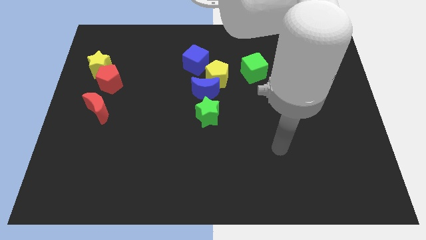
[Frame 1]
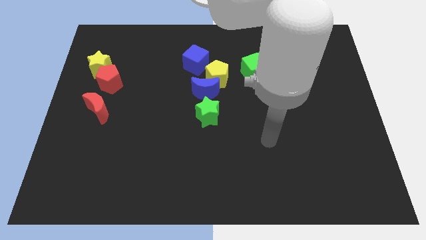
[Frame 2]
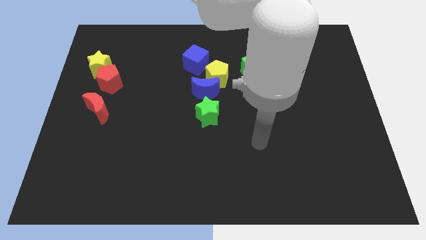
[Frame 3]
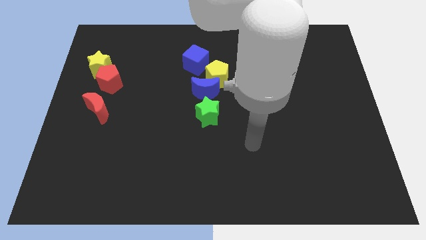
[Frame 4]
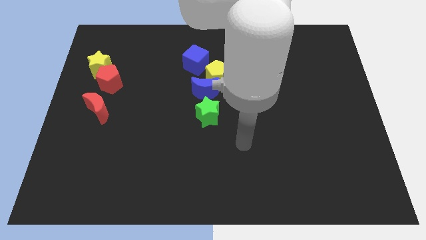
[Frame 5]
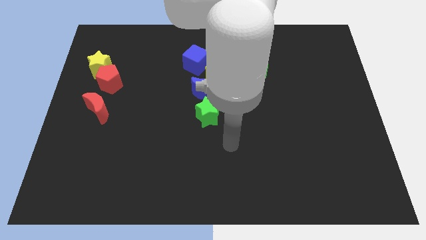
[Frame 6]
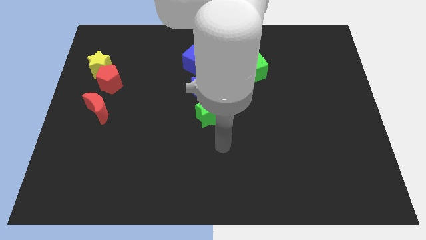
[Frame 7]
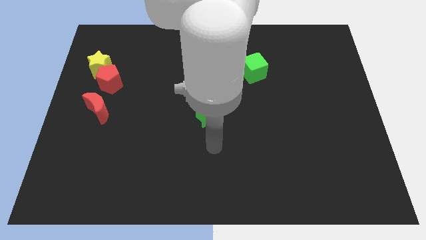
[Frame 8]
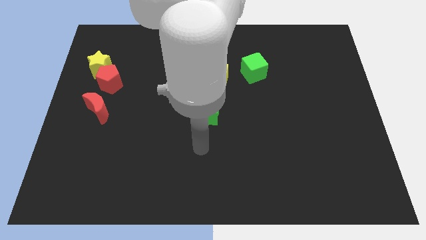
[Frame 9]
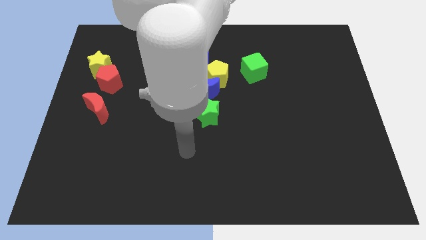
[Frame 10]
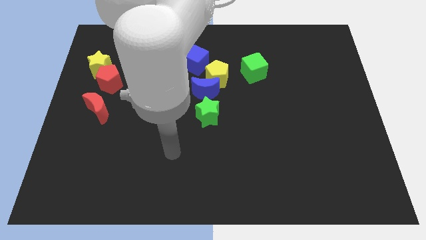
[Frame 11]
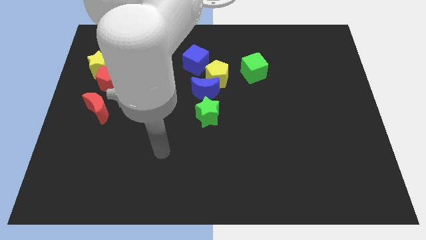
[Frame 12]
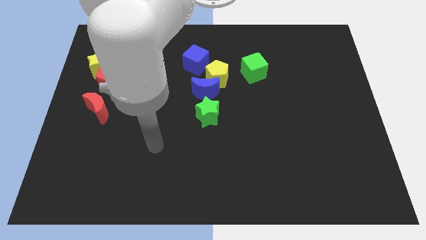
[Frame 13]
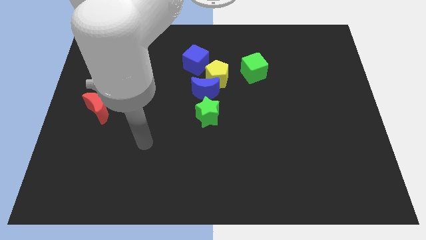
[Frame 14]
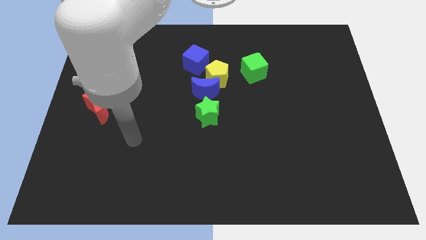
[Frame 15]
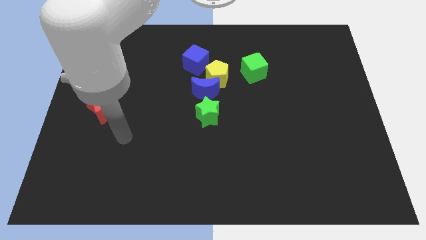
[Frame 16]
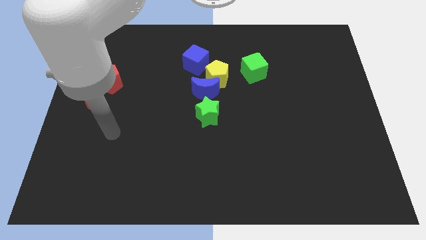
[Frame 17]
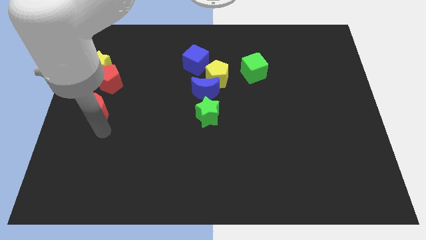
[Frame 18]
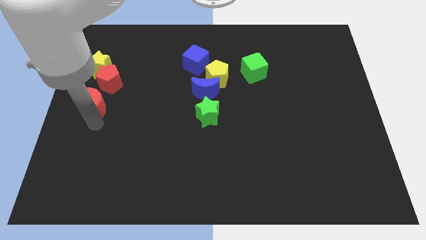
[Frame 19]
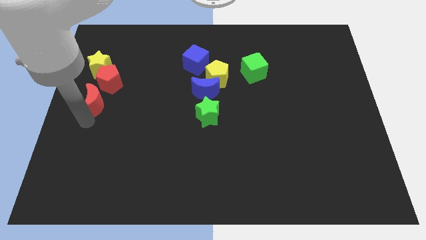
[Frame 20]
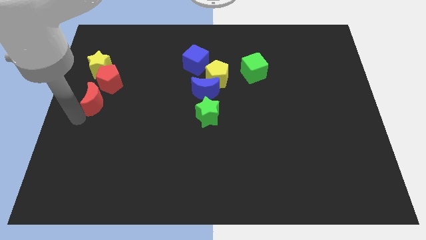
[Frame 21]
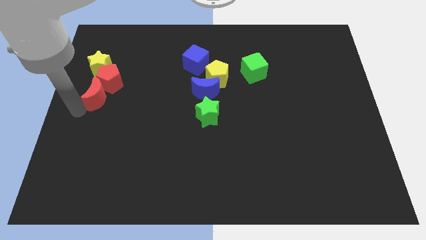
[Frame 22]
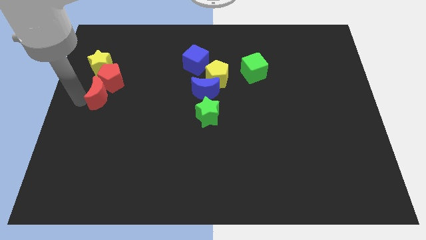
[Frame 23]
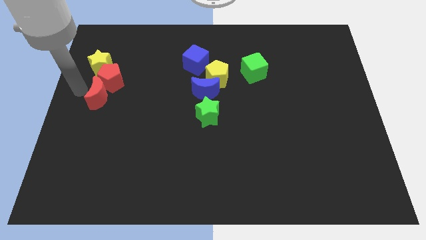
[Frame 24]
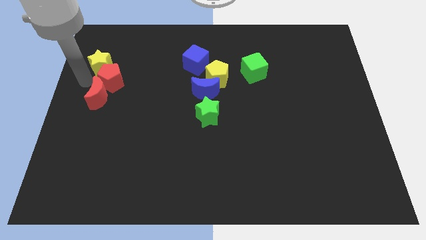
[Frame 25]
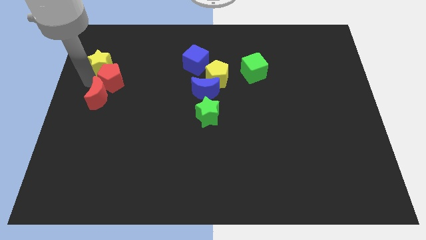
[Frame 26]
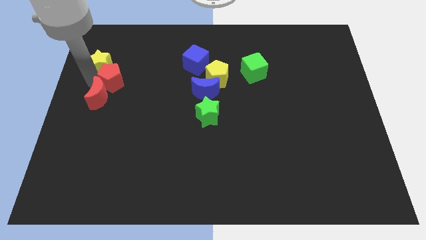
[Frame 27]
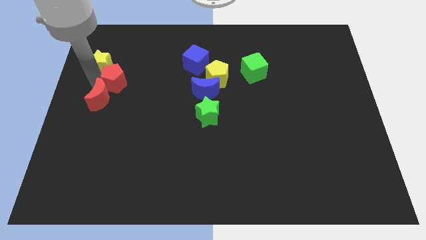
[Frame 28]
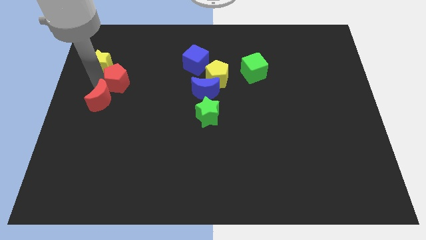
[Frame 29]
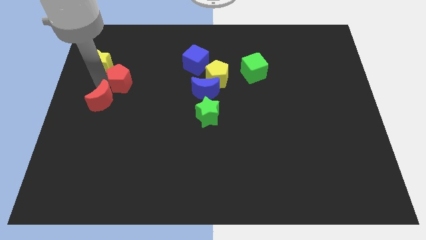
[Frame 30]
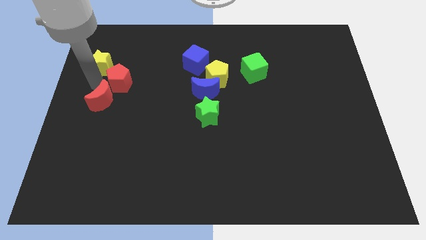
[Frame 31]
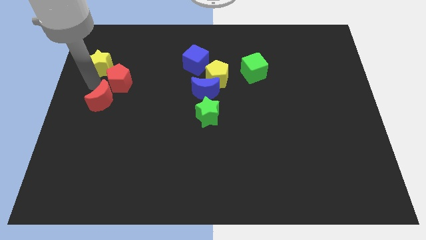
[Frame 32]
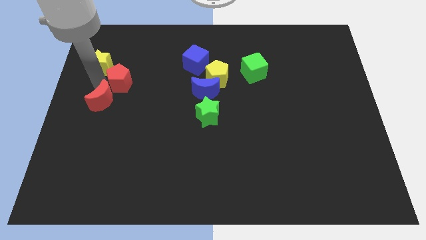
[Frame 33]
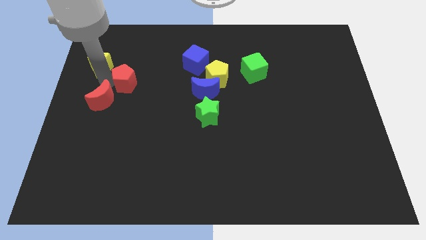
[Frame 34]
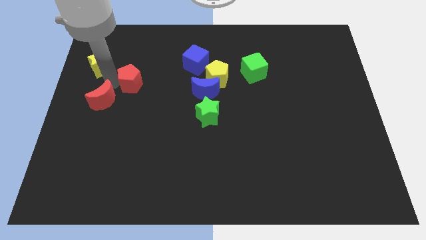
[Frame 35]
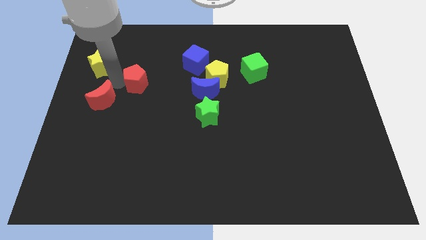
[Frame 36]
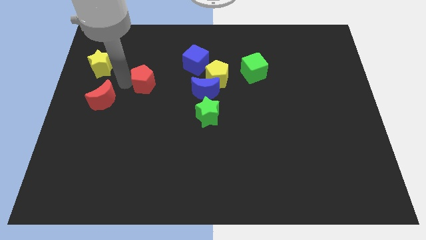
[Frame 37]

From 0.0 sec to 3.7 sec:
slightly move the red pentagon to the right

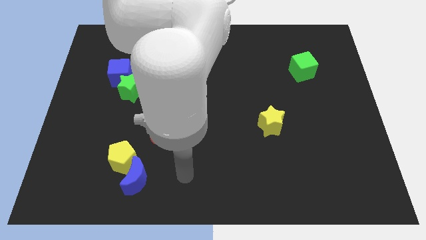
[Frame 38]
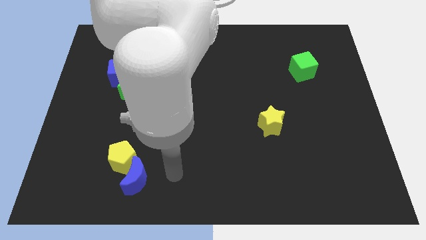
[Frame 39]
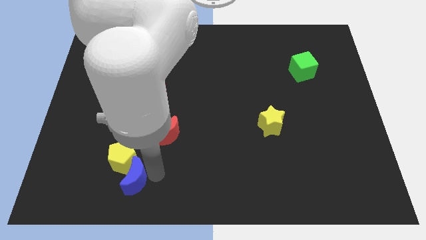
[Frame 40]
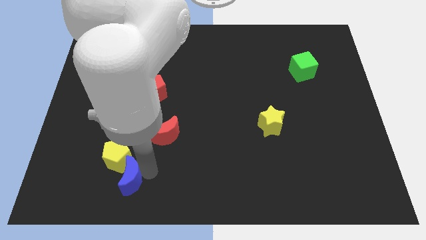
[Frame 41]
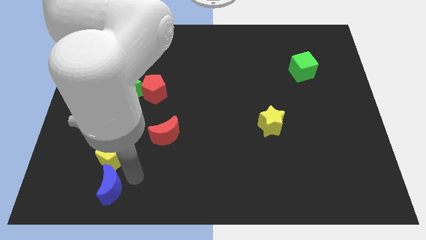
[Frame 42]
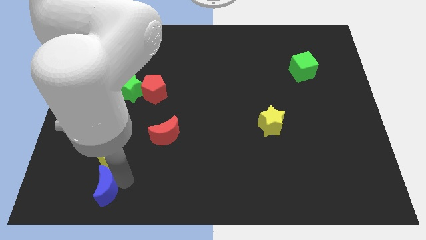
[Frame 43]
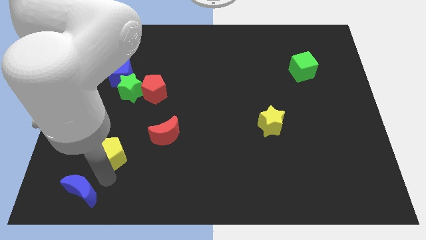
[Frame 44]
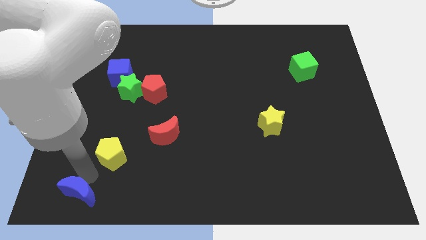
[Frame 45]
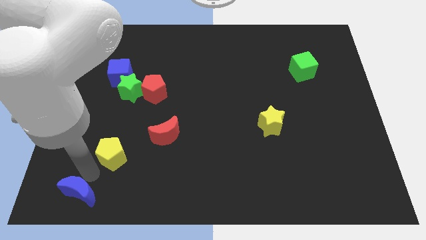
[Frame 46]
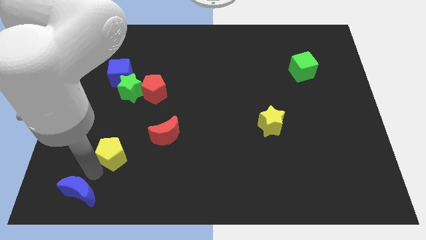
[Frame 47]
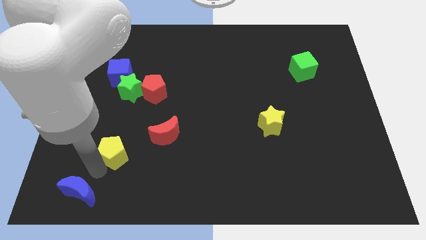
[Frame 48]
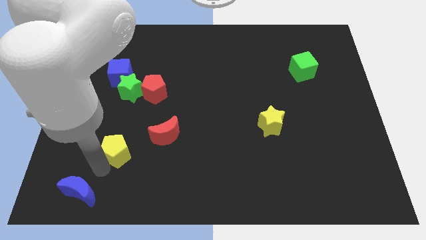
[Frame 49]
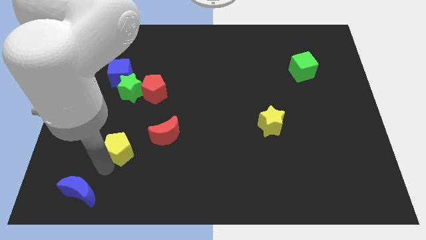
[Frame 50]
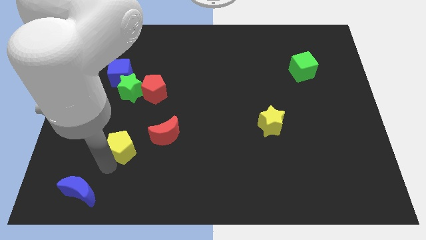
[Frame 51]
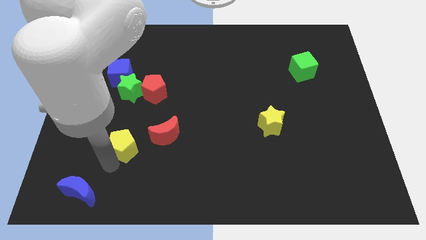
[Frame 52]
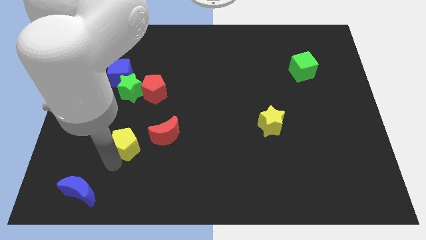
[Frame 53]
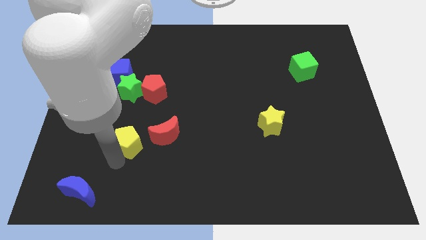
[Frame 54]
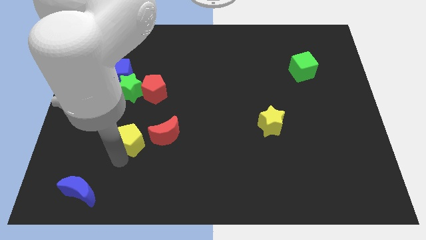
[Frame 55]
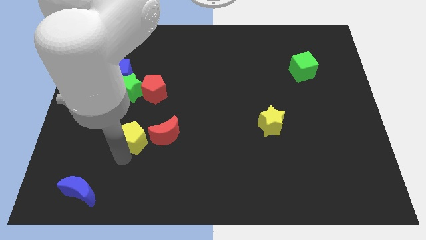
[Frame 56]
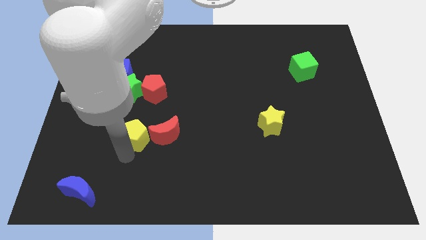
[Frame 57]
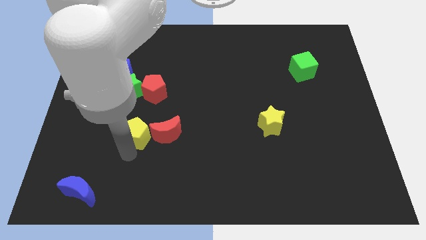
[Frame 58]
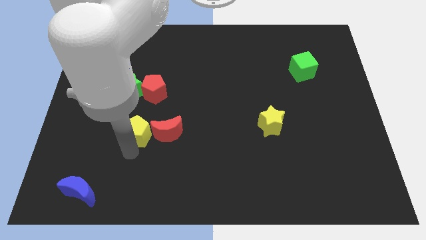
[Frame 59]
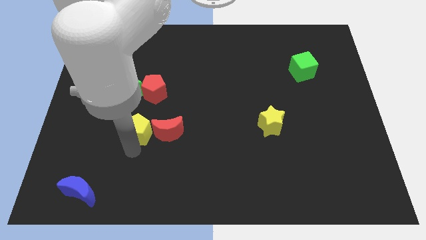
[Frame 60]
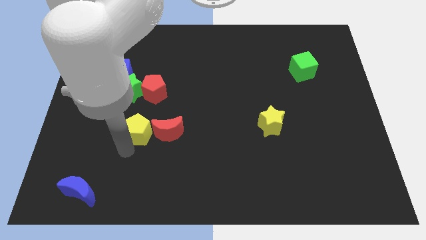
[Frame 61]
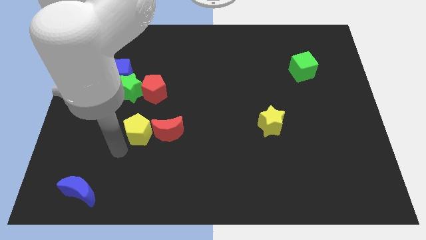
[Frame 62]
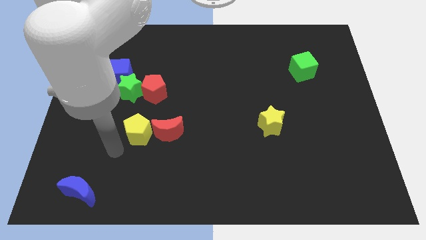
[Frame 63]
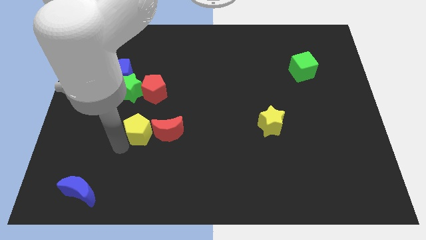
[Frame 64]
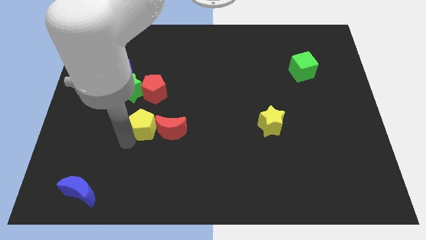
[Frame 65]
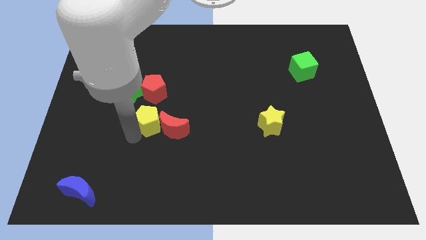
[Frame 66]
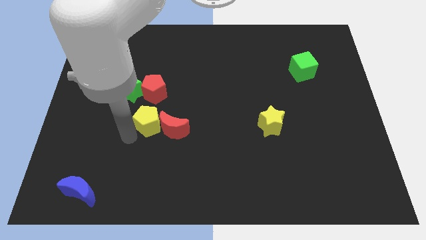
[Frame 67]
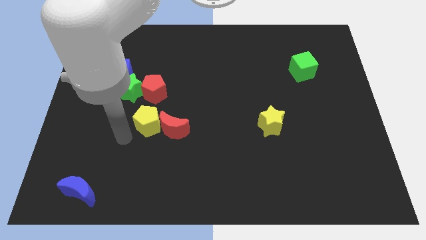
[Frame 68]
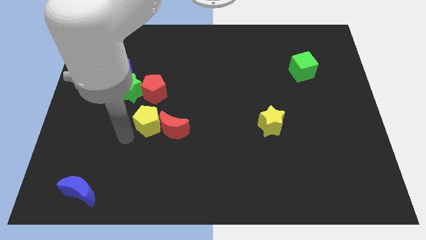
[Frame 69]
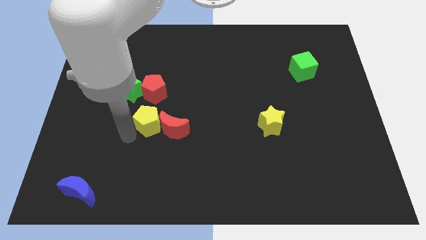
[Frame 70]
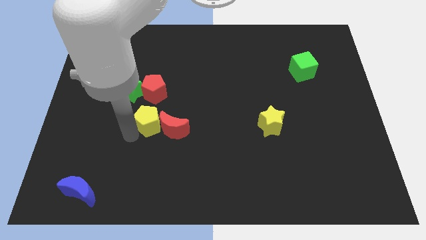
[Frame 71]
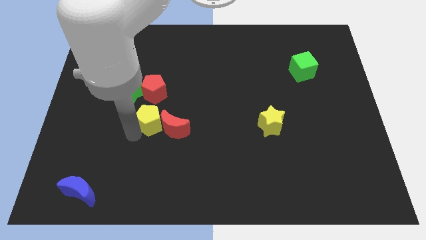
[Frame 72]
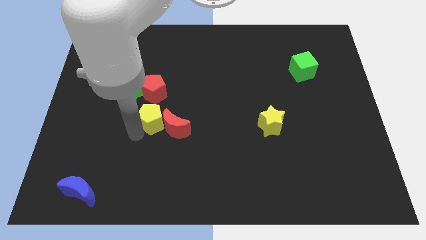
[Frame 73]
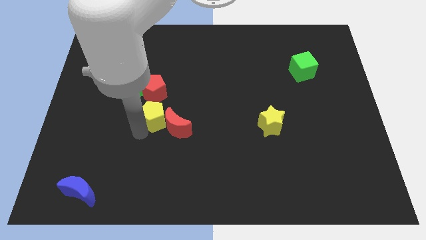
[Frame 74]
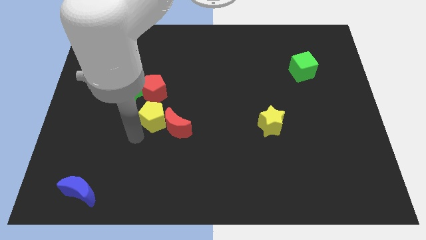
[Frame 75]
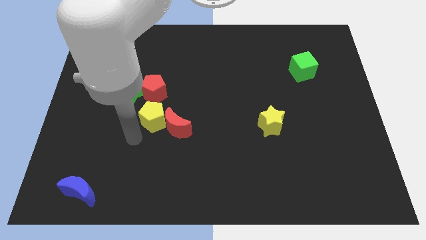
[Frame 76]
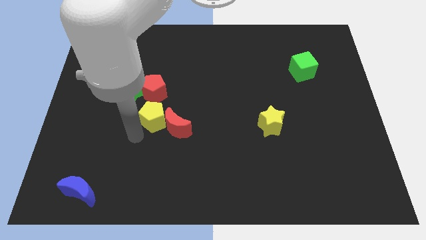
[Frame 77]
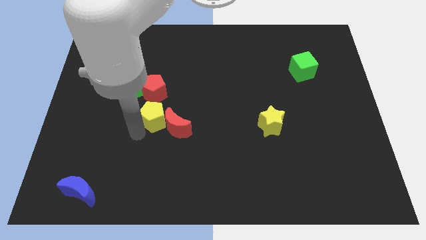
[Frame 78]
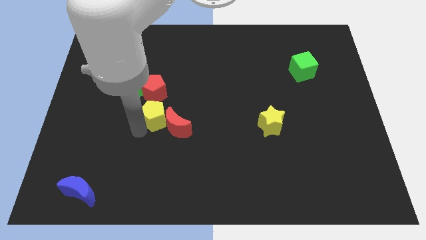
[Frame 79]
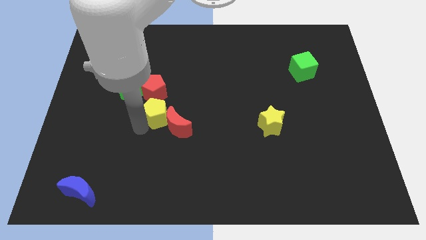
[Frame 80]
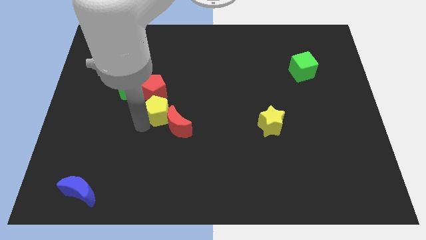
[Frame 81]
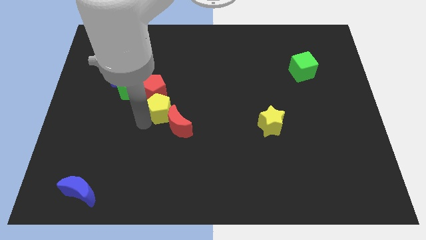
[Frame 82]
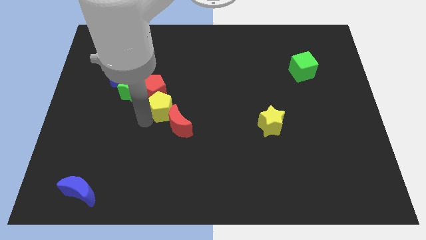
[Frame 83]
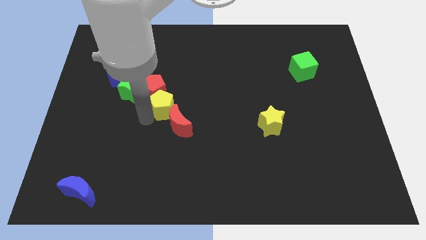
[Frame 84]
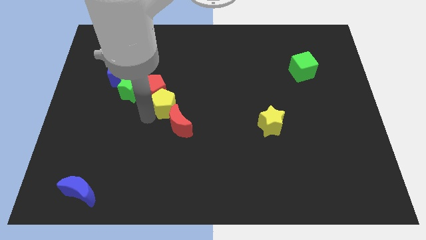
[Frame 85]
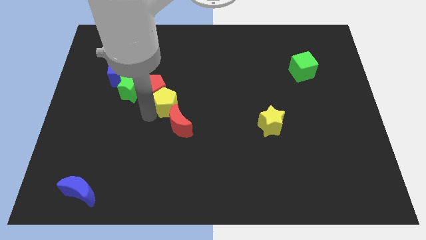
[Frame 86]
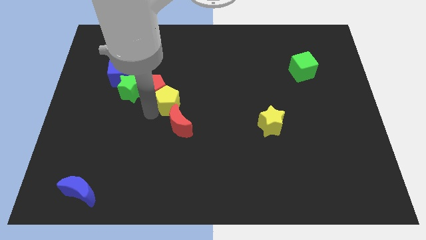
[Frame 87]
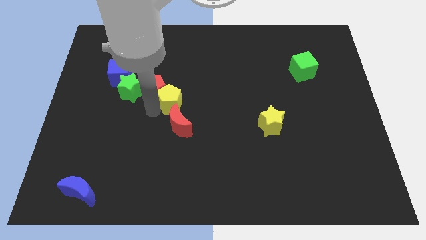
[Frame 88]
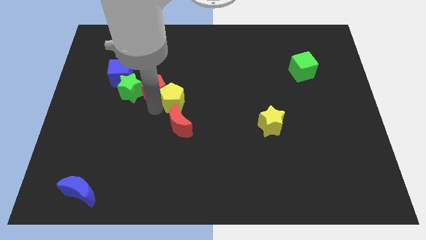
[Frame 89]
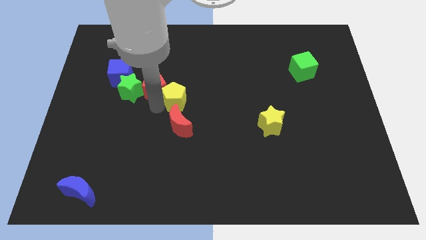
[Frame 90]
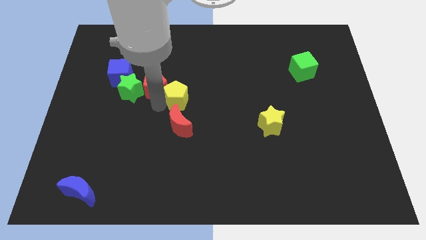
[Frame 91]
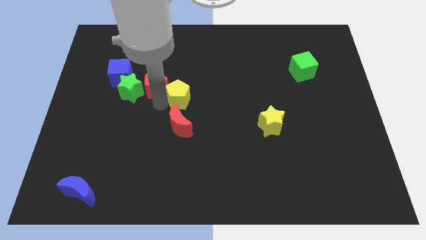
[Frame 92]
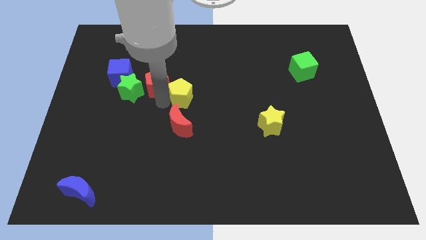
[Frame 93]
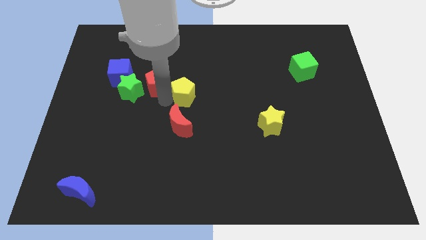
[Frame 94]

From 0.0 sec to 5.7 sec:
push the yellow pentagon up and then right
